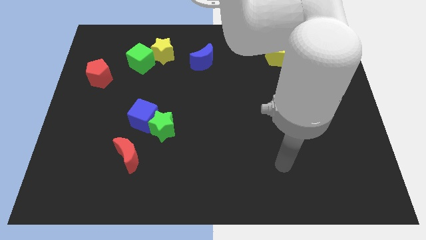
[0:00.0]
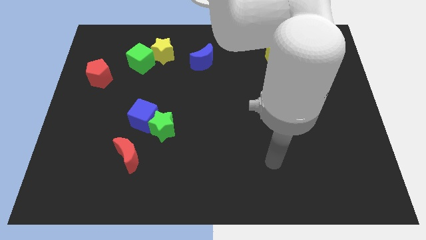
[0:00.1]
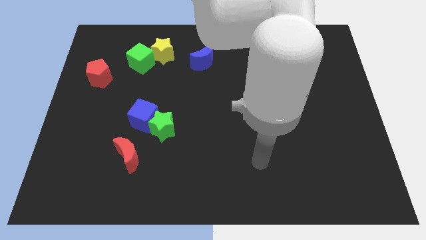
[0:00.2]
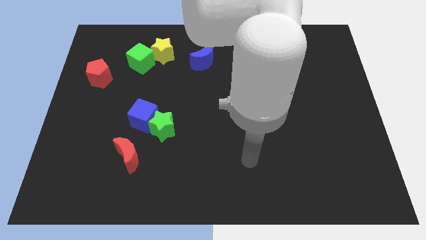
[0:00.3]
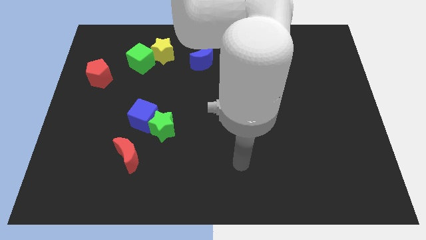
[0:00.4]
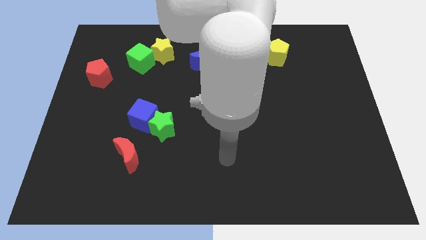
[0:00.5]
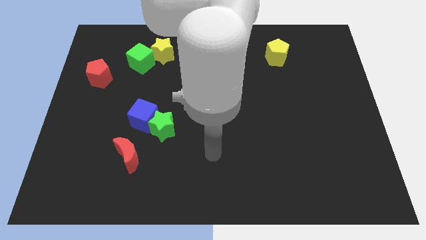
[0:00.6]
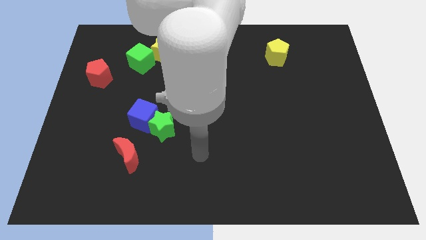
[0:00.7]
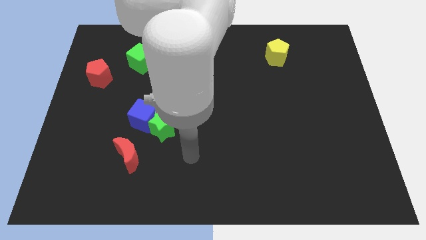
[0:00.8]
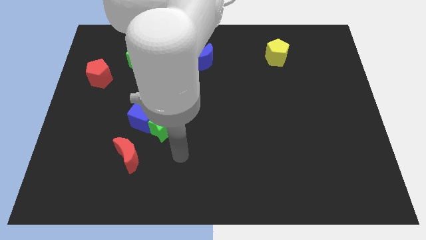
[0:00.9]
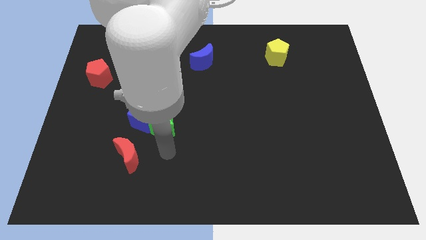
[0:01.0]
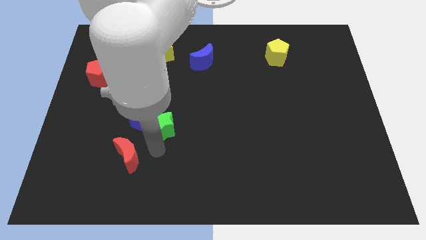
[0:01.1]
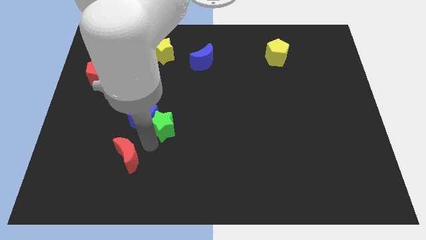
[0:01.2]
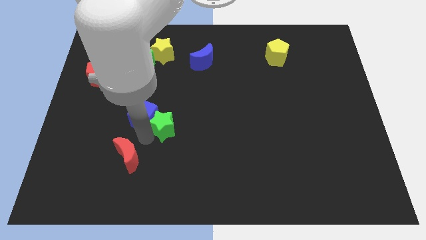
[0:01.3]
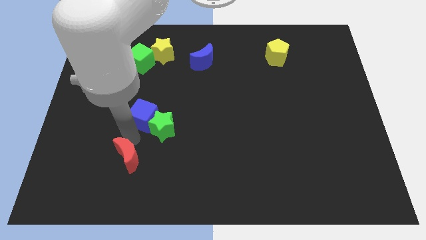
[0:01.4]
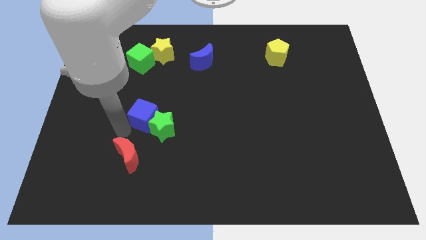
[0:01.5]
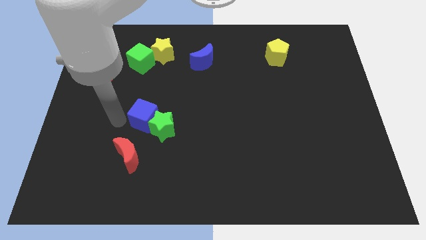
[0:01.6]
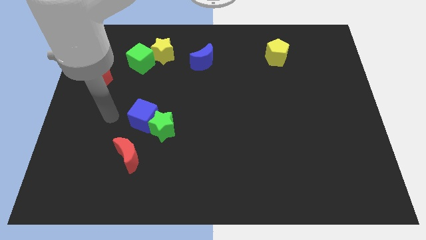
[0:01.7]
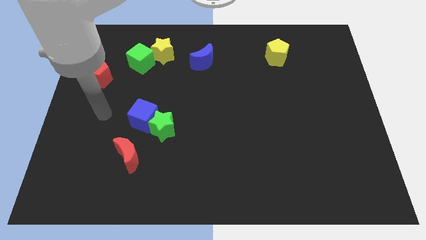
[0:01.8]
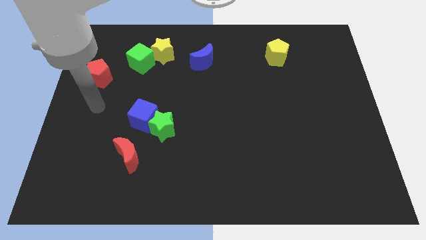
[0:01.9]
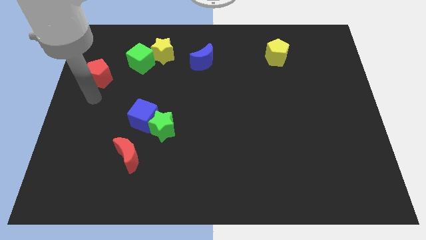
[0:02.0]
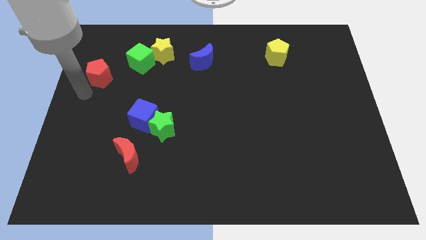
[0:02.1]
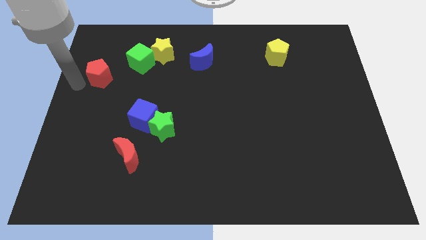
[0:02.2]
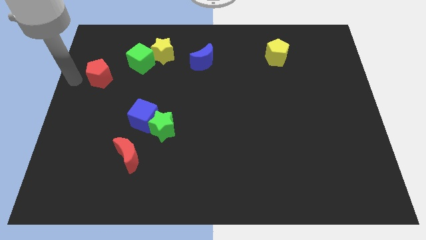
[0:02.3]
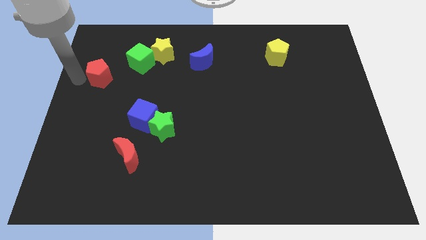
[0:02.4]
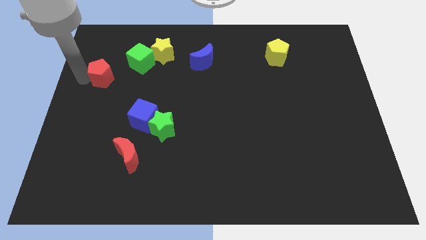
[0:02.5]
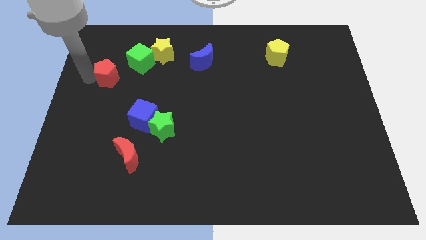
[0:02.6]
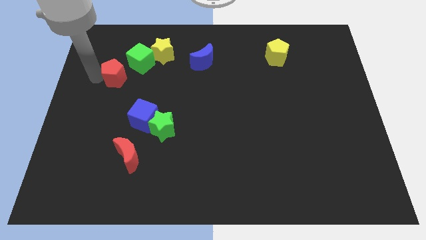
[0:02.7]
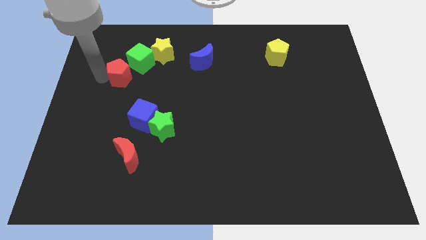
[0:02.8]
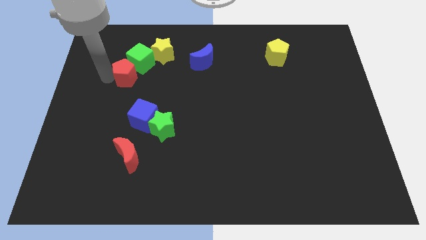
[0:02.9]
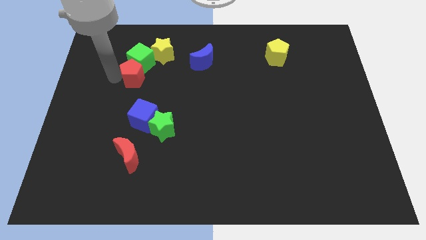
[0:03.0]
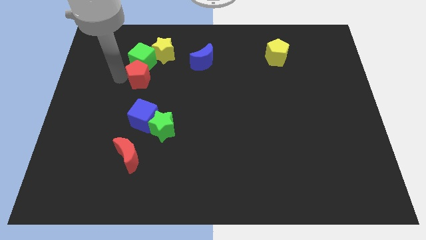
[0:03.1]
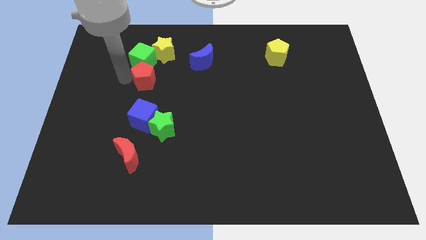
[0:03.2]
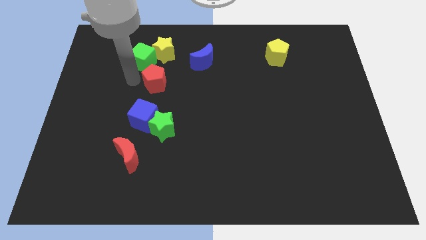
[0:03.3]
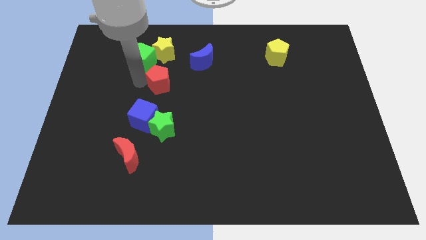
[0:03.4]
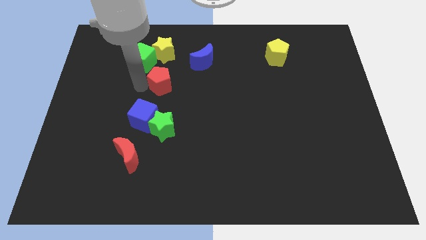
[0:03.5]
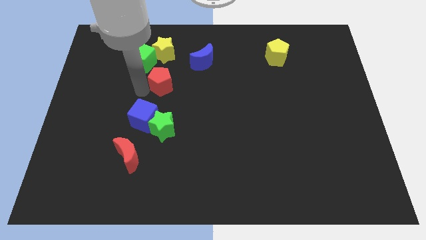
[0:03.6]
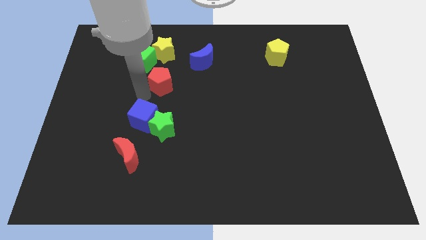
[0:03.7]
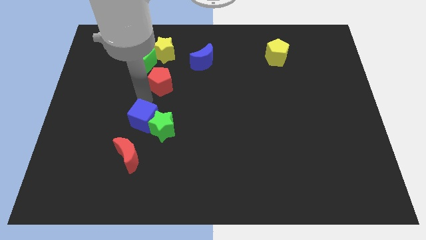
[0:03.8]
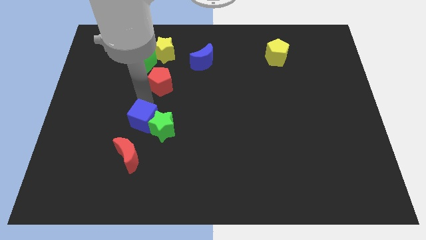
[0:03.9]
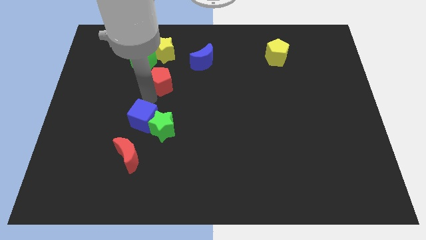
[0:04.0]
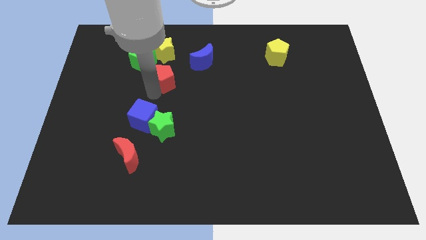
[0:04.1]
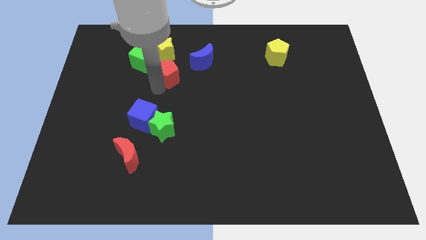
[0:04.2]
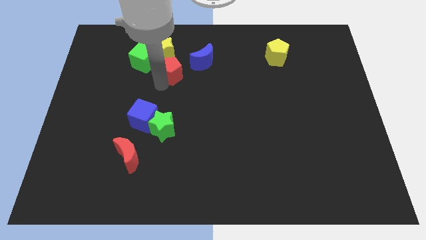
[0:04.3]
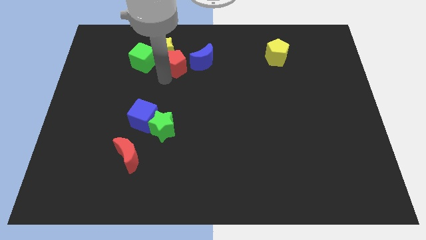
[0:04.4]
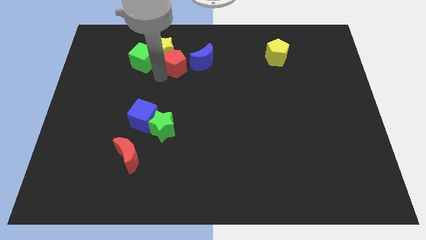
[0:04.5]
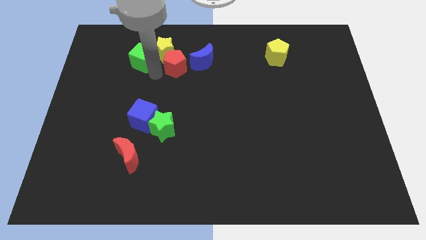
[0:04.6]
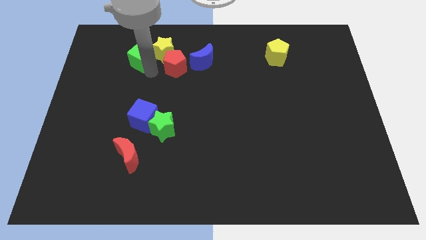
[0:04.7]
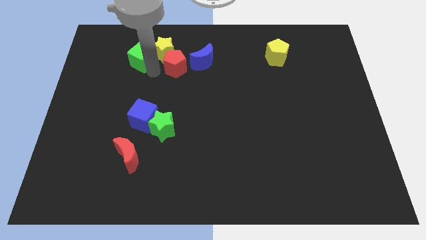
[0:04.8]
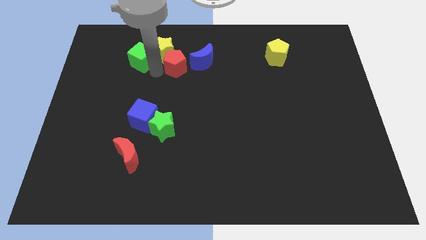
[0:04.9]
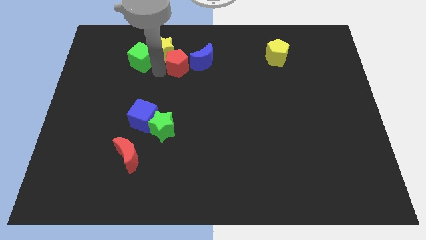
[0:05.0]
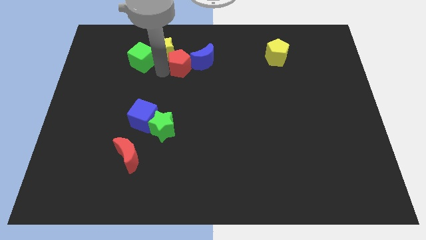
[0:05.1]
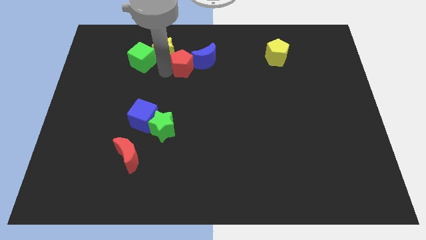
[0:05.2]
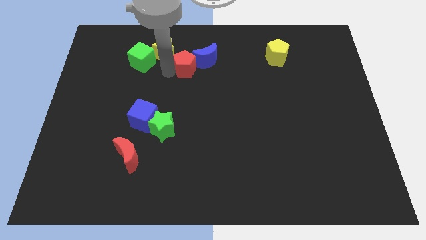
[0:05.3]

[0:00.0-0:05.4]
slide the red pentagon towards the blue moon

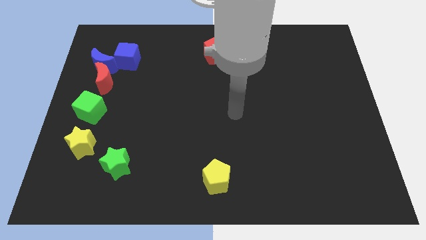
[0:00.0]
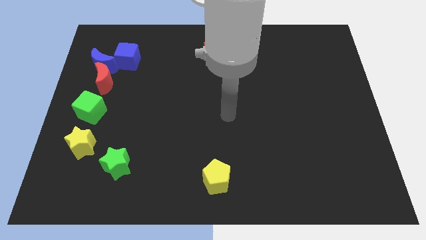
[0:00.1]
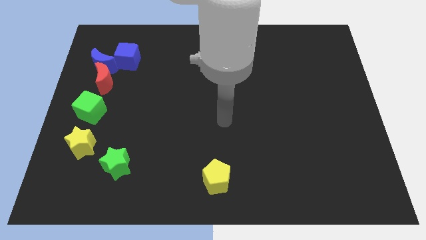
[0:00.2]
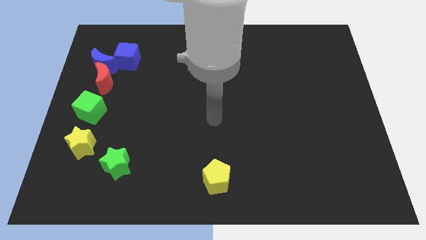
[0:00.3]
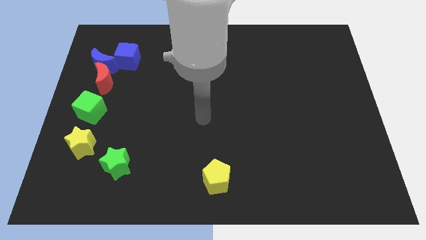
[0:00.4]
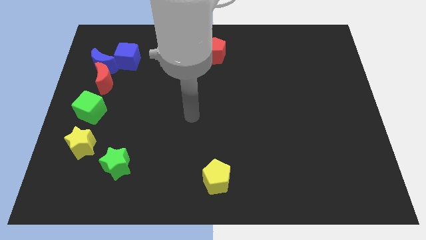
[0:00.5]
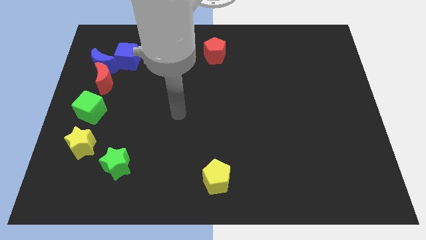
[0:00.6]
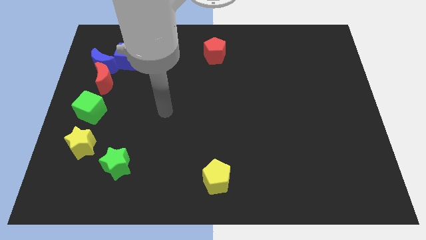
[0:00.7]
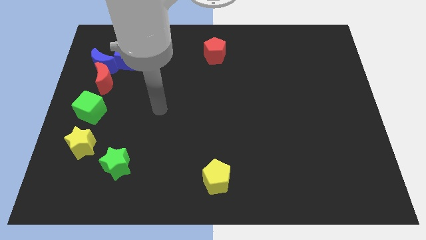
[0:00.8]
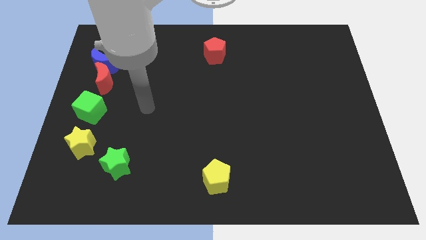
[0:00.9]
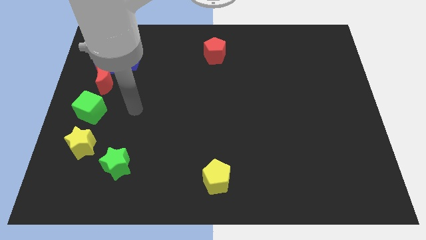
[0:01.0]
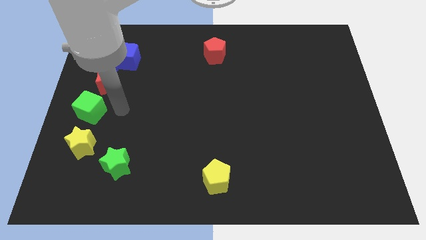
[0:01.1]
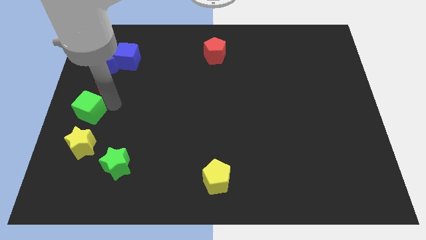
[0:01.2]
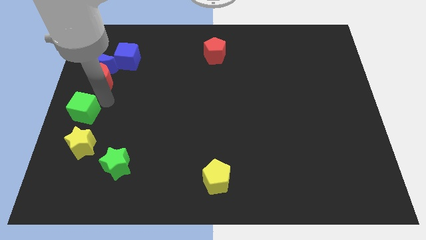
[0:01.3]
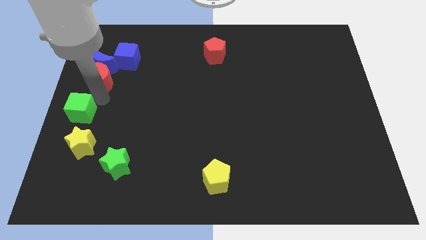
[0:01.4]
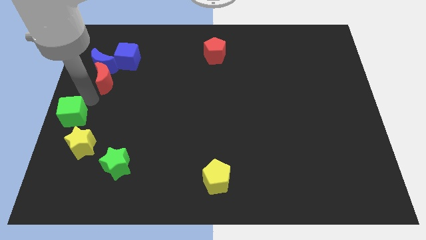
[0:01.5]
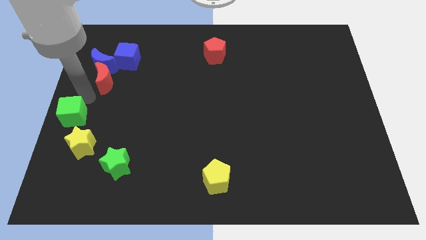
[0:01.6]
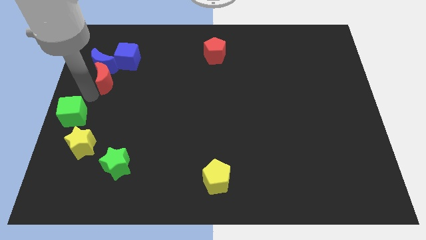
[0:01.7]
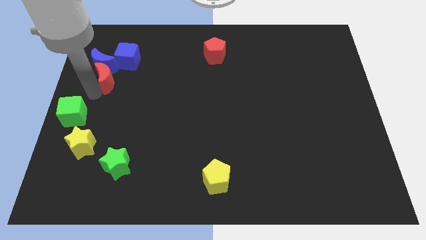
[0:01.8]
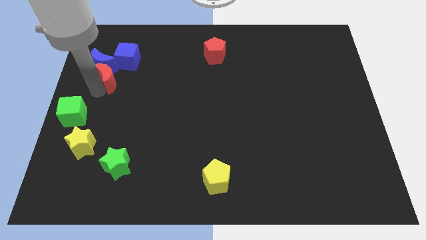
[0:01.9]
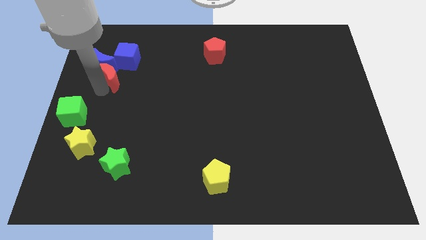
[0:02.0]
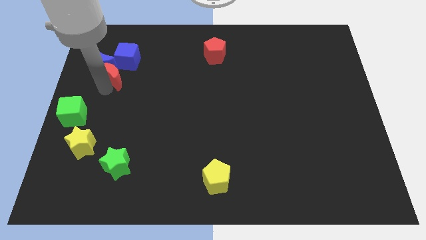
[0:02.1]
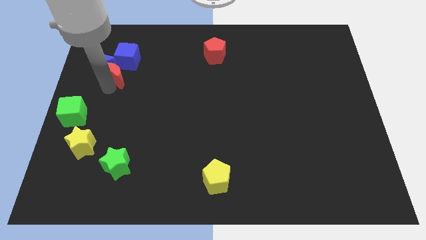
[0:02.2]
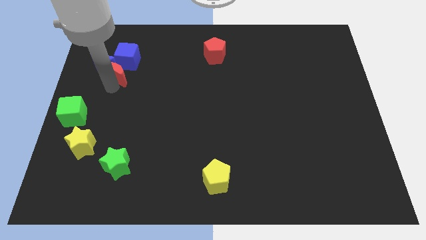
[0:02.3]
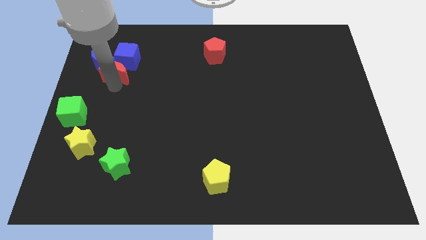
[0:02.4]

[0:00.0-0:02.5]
push the red moon to the blue cube
